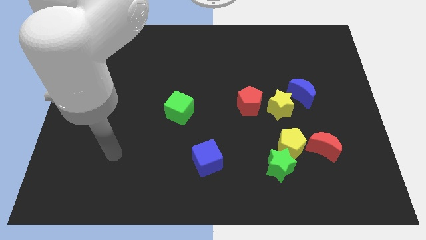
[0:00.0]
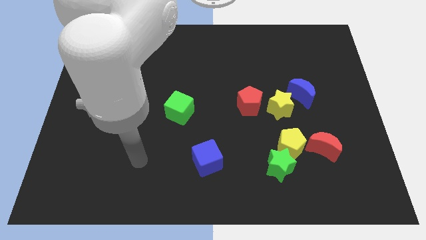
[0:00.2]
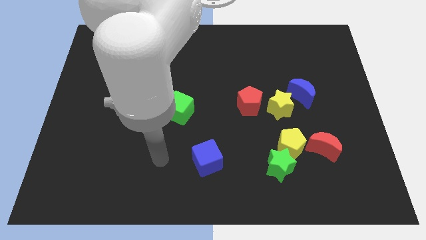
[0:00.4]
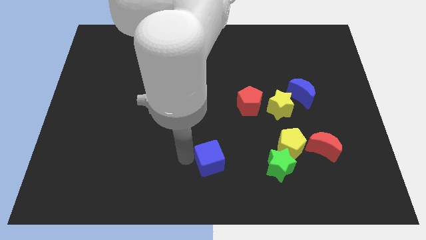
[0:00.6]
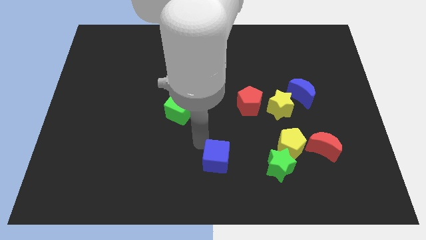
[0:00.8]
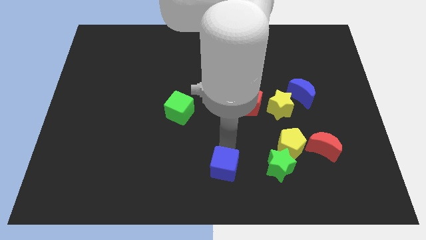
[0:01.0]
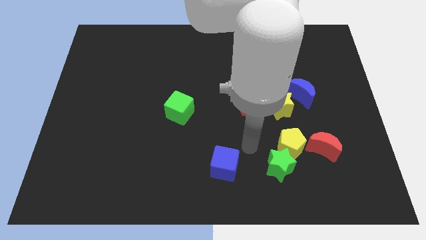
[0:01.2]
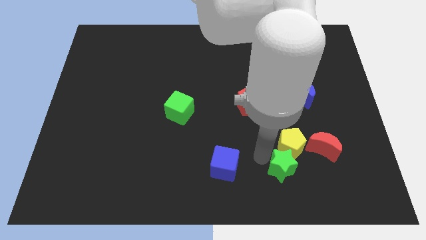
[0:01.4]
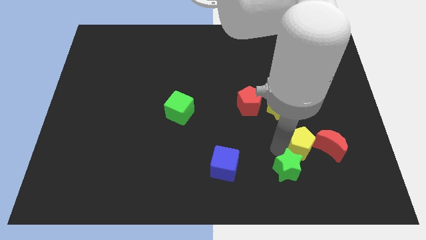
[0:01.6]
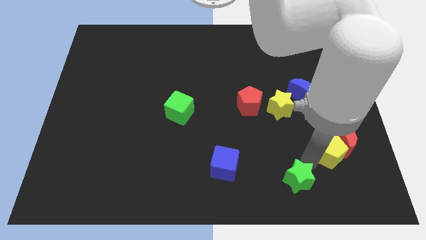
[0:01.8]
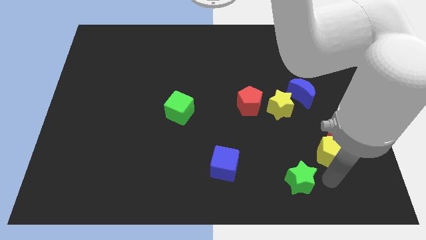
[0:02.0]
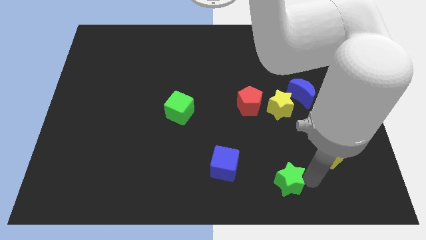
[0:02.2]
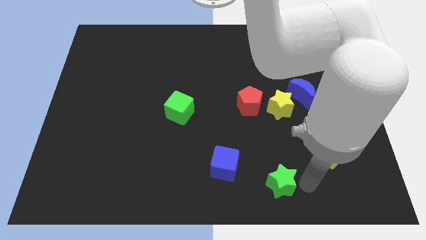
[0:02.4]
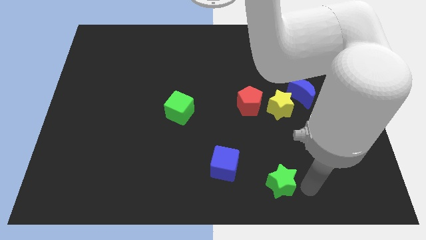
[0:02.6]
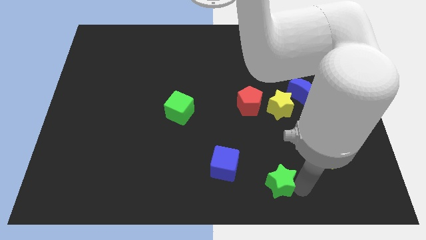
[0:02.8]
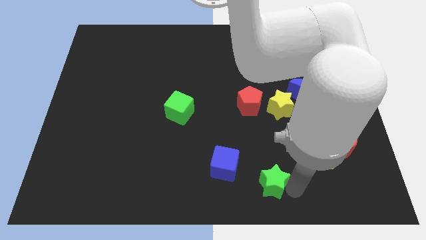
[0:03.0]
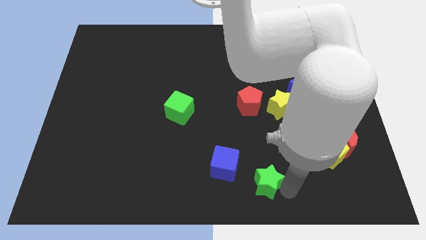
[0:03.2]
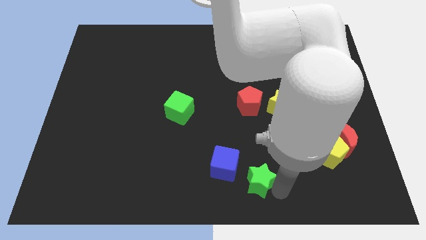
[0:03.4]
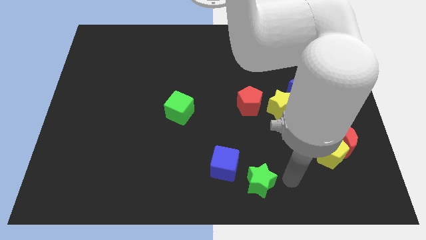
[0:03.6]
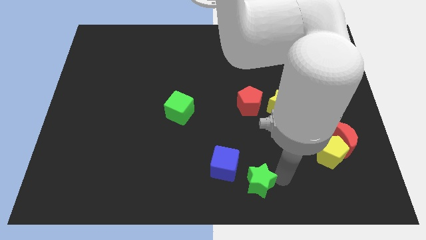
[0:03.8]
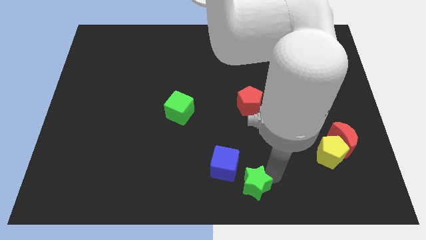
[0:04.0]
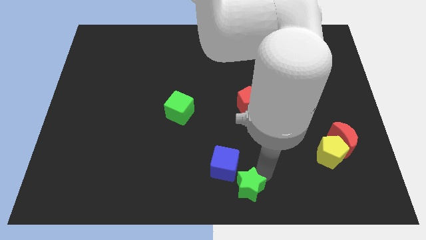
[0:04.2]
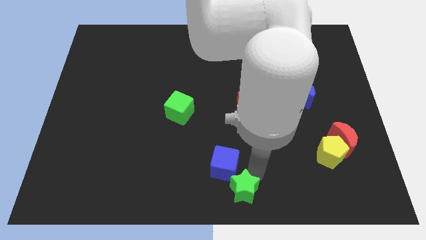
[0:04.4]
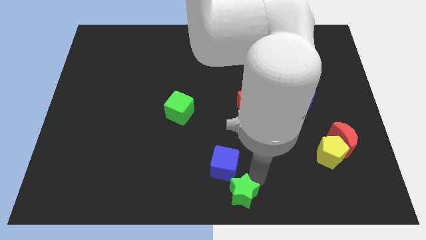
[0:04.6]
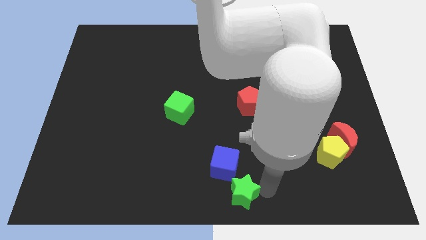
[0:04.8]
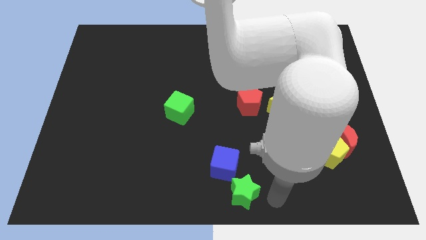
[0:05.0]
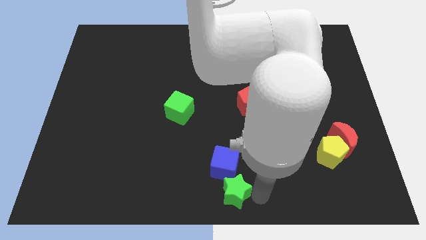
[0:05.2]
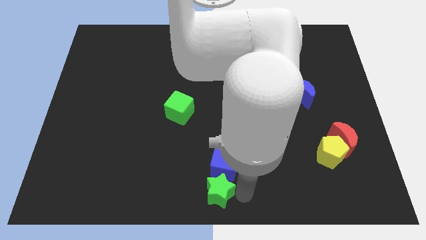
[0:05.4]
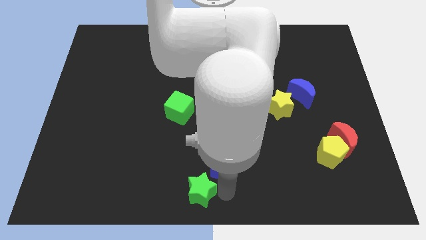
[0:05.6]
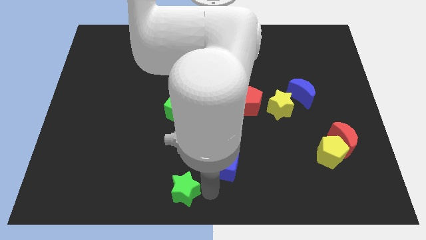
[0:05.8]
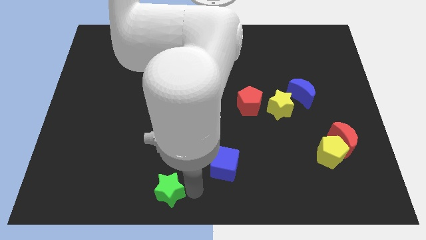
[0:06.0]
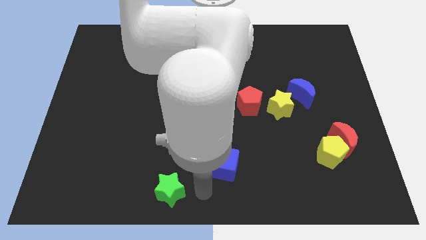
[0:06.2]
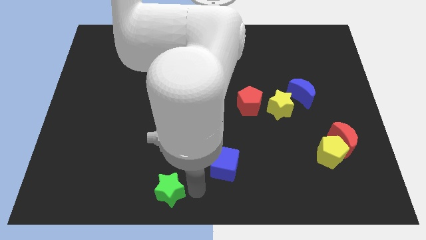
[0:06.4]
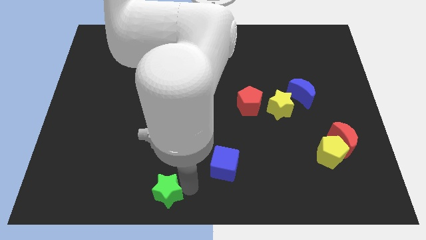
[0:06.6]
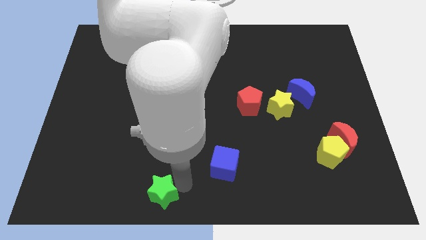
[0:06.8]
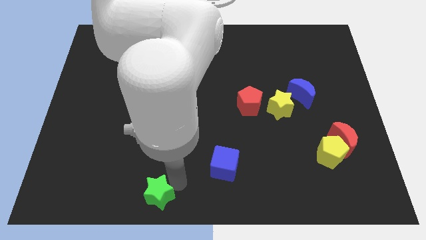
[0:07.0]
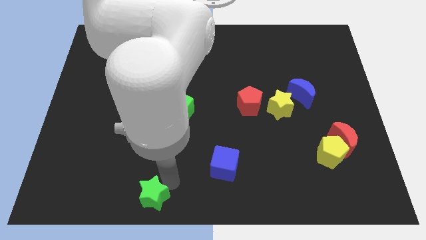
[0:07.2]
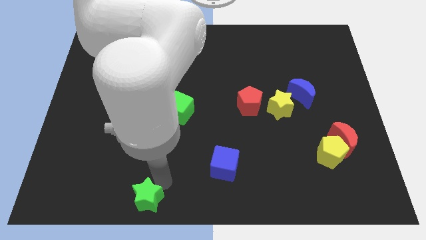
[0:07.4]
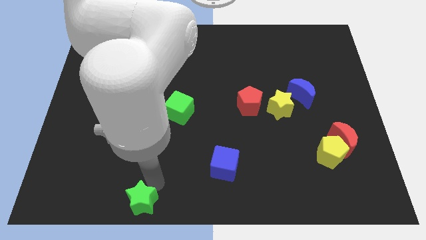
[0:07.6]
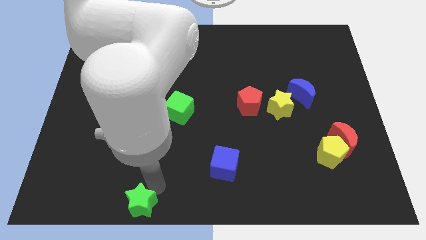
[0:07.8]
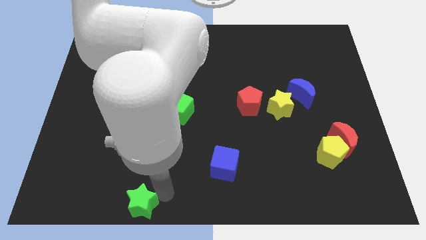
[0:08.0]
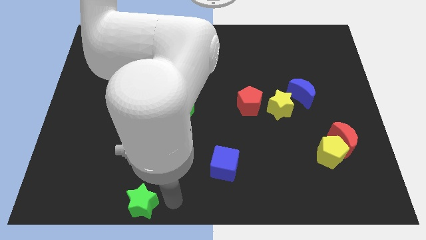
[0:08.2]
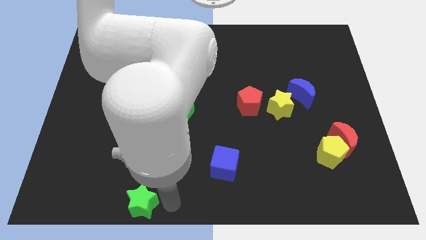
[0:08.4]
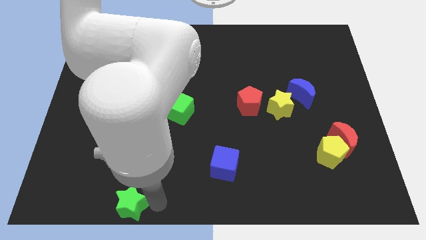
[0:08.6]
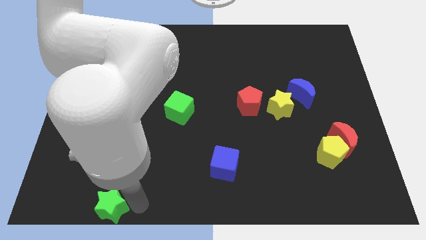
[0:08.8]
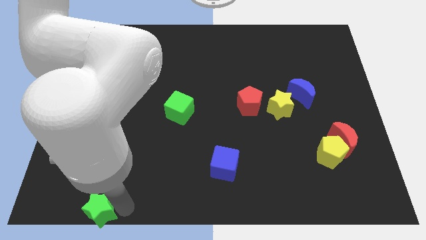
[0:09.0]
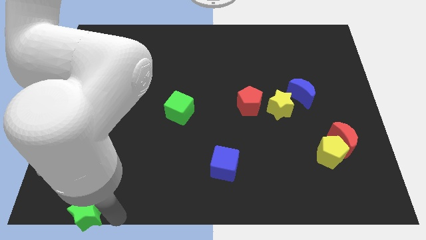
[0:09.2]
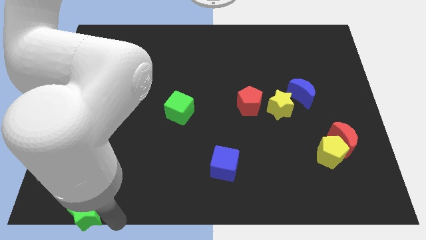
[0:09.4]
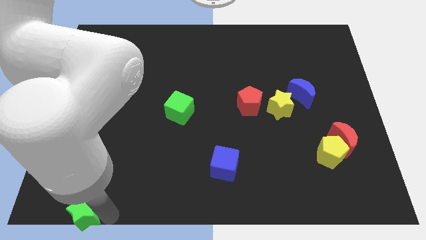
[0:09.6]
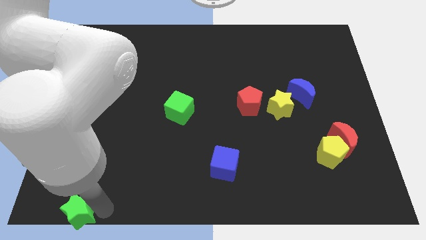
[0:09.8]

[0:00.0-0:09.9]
move the green star to the lower left corner

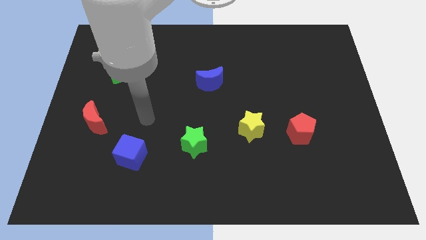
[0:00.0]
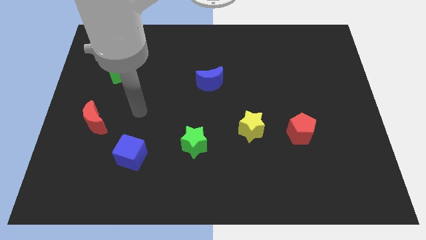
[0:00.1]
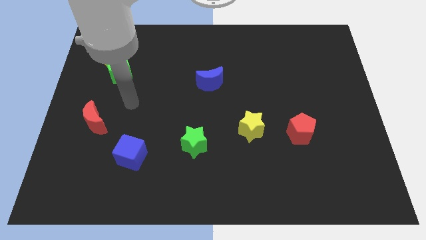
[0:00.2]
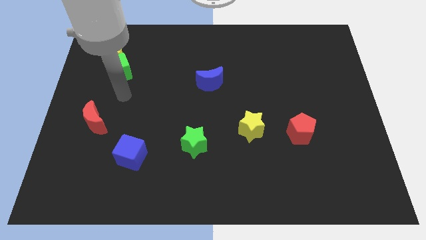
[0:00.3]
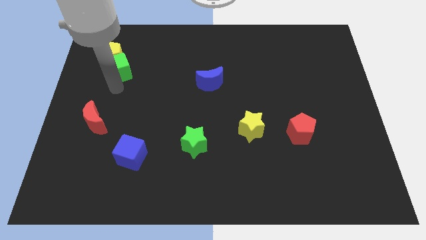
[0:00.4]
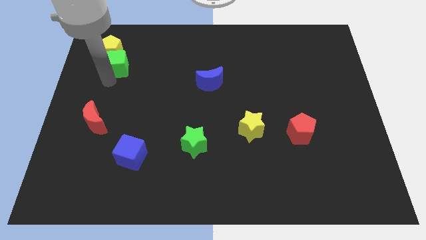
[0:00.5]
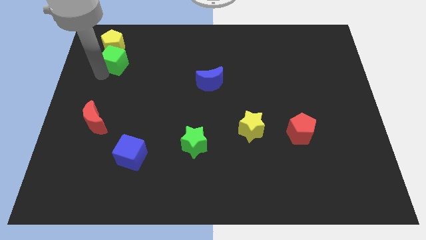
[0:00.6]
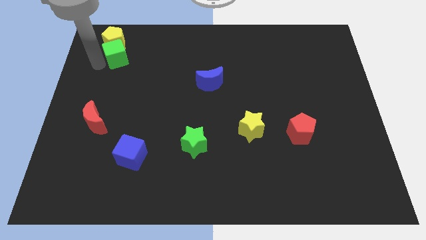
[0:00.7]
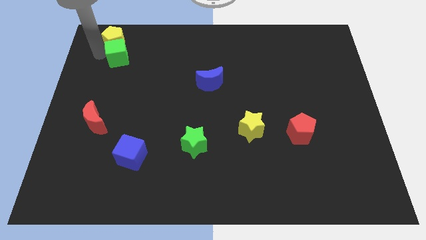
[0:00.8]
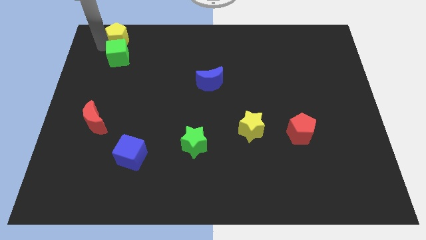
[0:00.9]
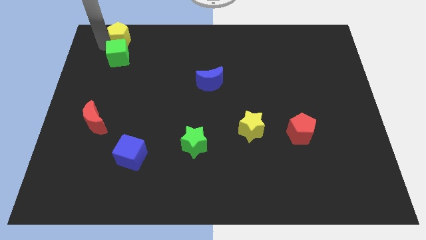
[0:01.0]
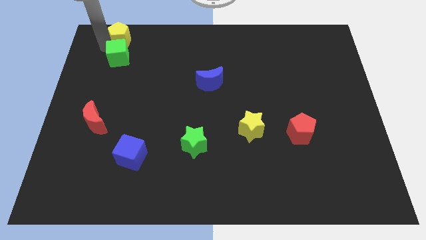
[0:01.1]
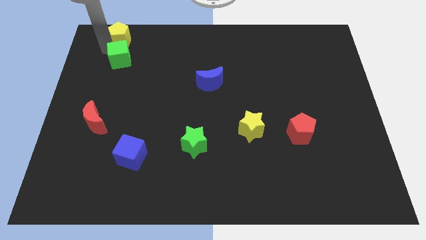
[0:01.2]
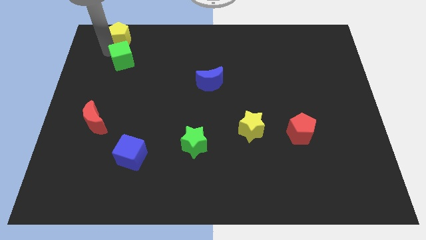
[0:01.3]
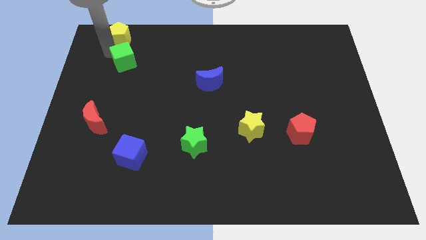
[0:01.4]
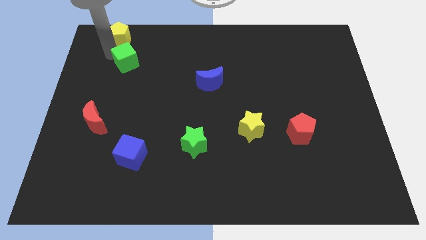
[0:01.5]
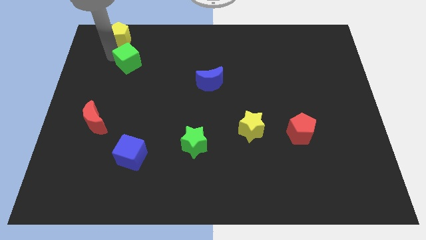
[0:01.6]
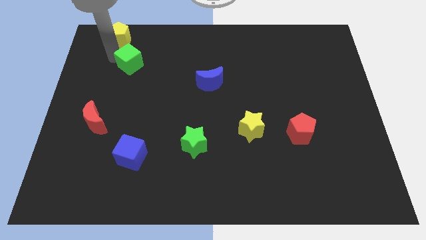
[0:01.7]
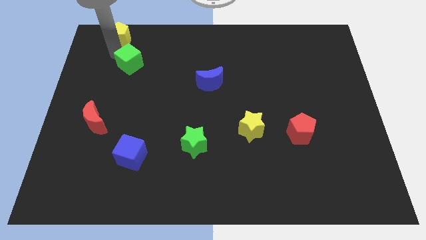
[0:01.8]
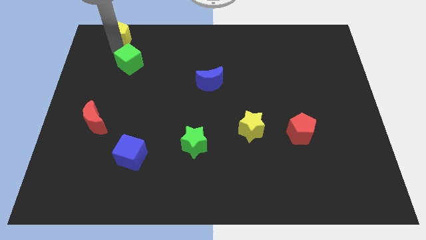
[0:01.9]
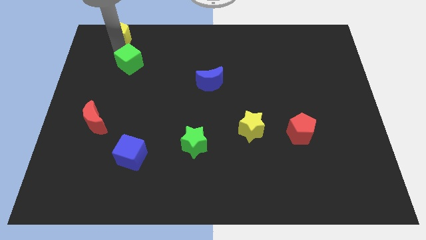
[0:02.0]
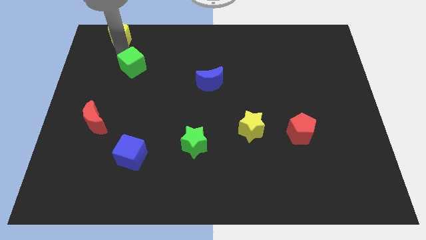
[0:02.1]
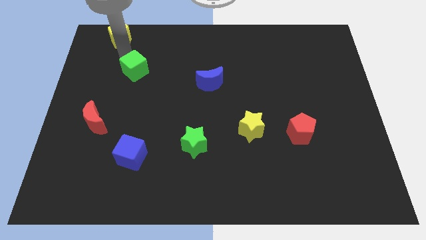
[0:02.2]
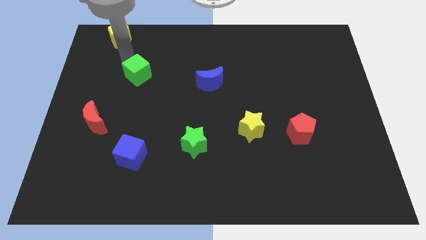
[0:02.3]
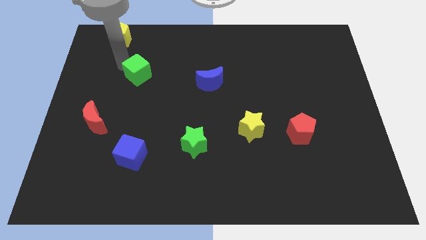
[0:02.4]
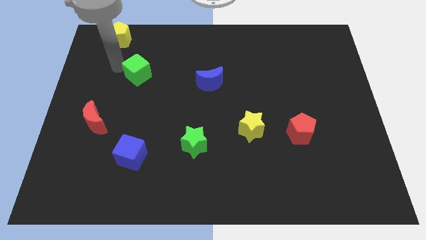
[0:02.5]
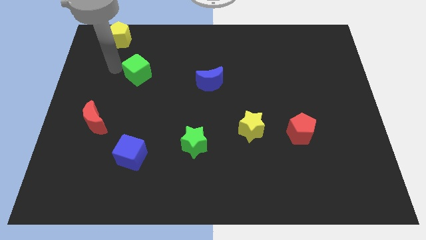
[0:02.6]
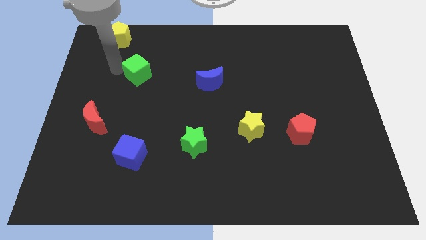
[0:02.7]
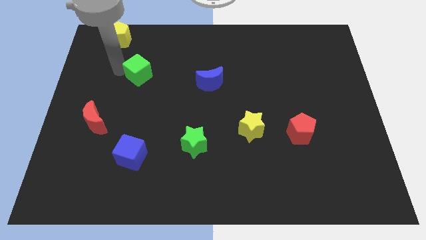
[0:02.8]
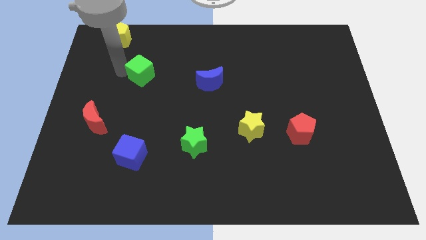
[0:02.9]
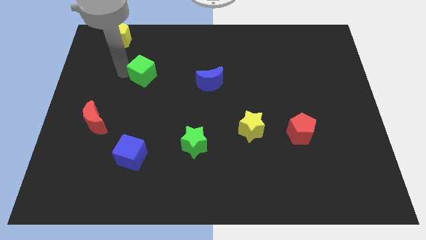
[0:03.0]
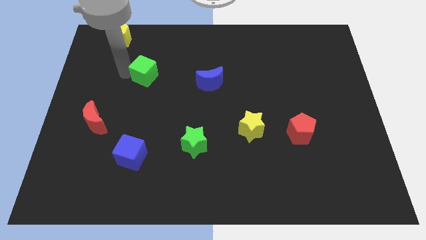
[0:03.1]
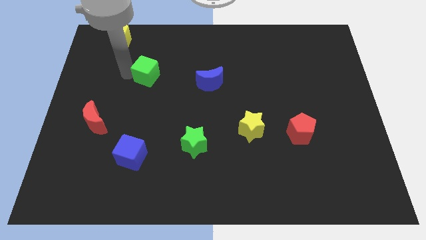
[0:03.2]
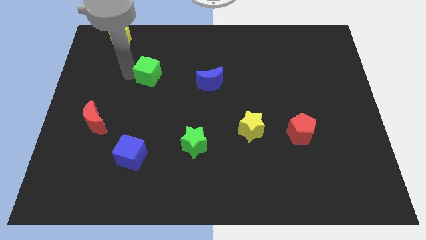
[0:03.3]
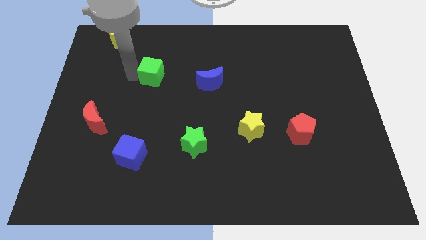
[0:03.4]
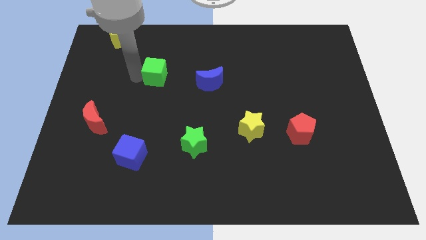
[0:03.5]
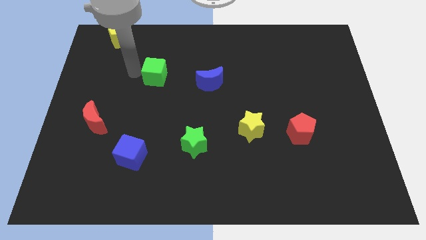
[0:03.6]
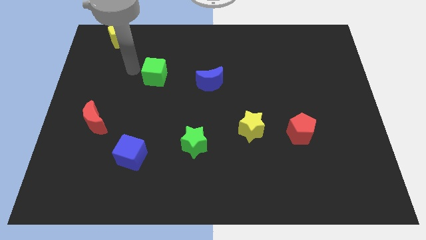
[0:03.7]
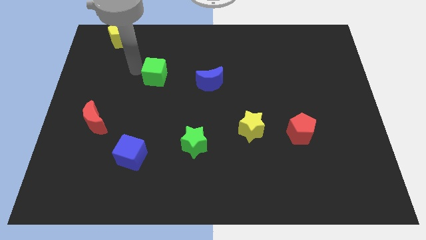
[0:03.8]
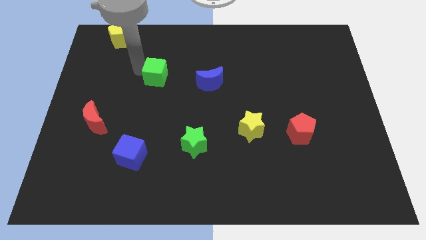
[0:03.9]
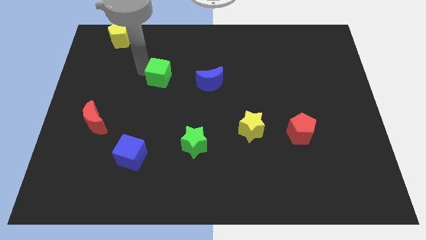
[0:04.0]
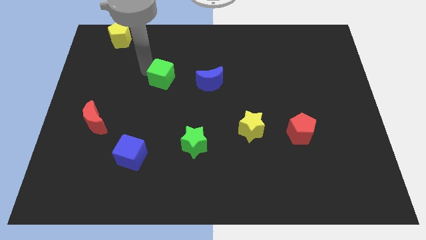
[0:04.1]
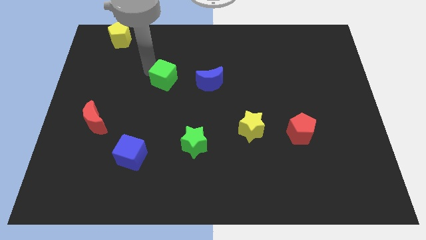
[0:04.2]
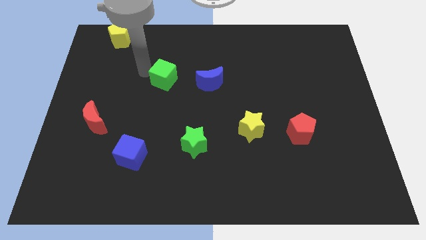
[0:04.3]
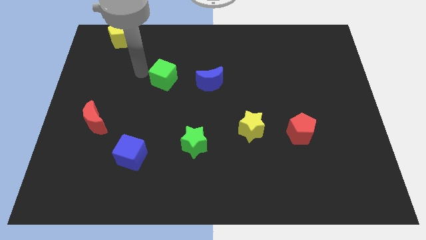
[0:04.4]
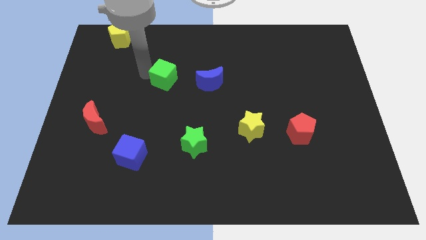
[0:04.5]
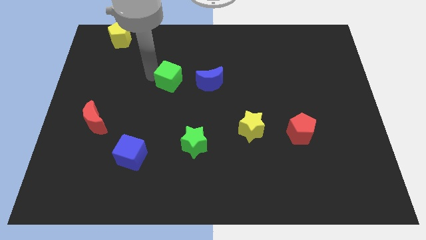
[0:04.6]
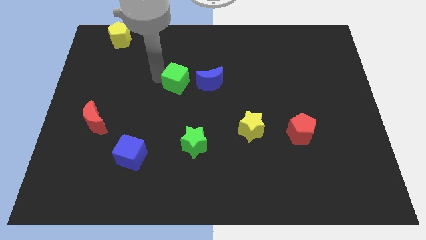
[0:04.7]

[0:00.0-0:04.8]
put the green cube to the middle of the board
